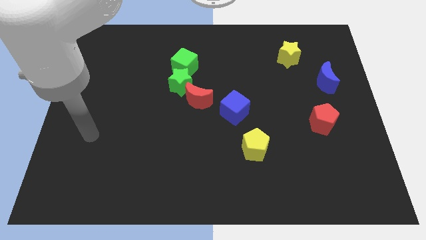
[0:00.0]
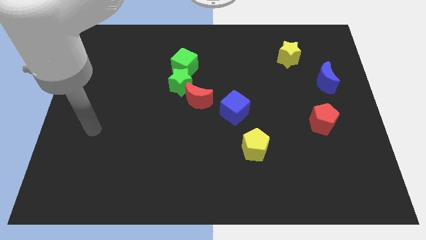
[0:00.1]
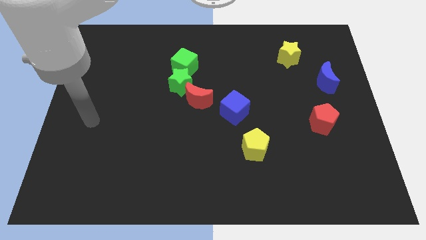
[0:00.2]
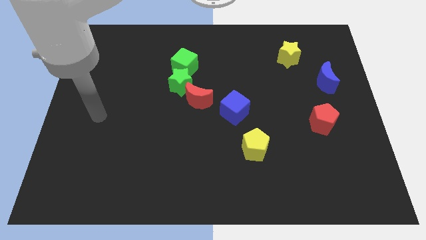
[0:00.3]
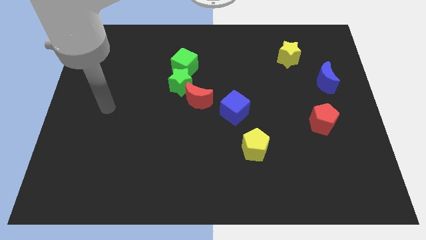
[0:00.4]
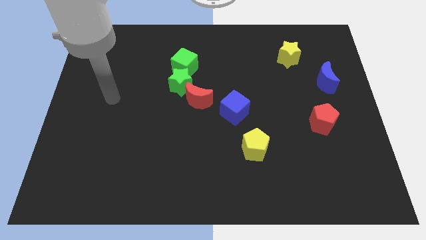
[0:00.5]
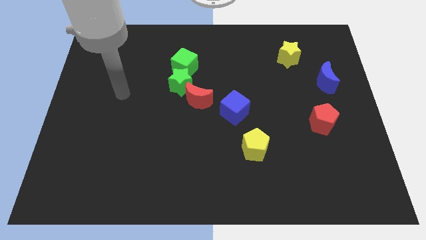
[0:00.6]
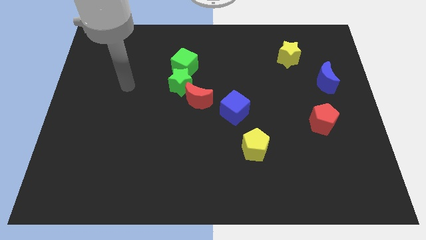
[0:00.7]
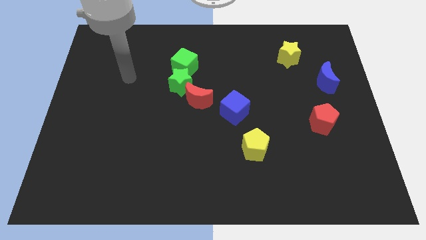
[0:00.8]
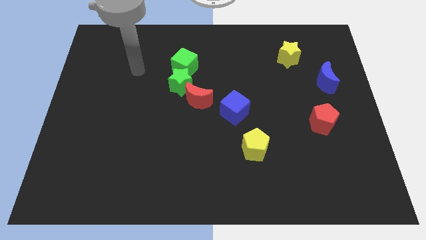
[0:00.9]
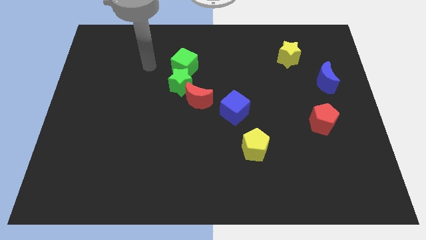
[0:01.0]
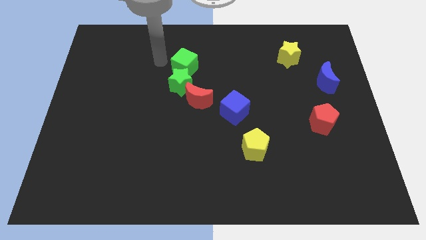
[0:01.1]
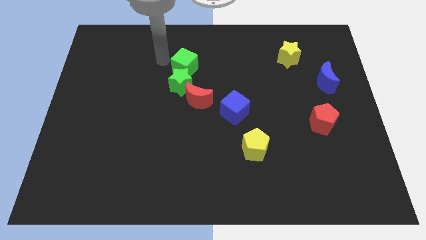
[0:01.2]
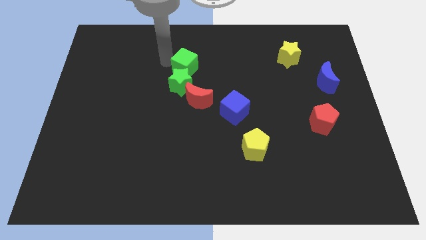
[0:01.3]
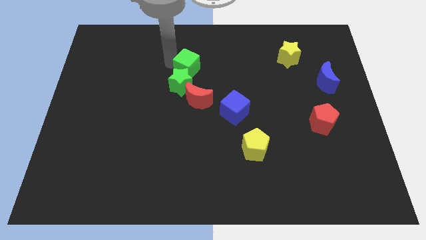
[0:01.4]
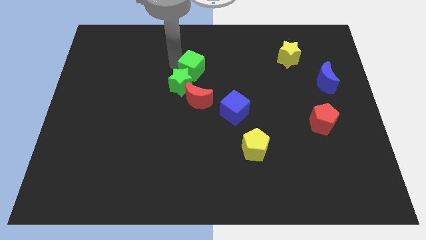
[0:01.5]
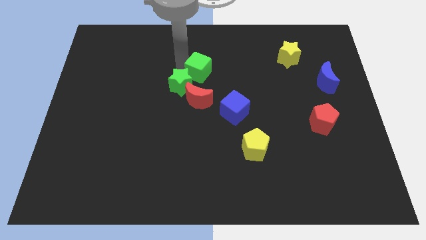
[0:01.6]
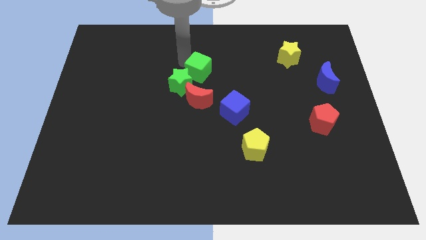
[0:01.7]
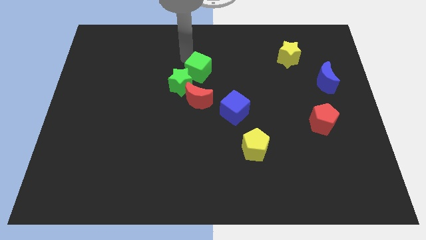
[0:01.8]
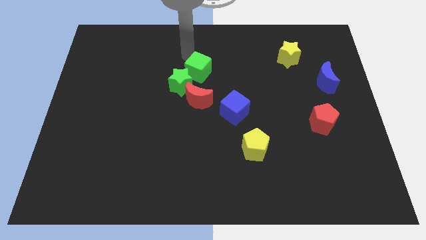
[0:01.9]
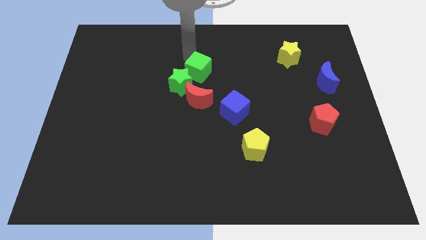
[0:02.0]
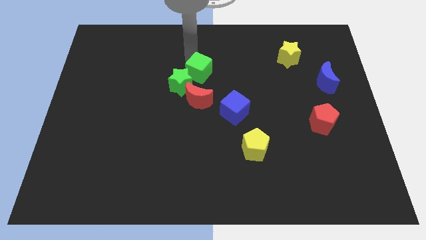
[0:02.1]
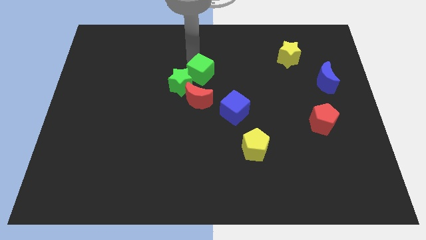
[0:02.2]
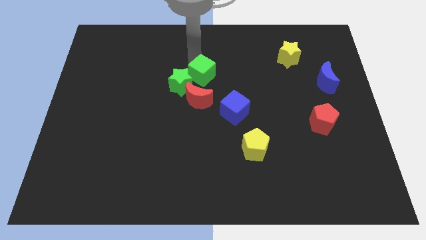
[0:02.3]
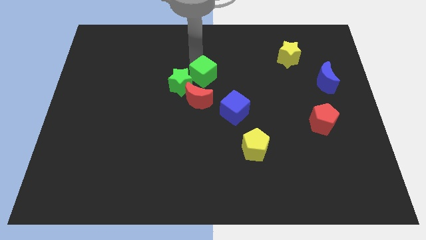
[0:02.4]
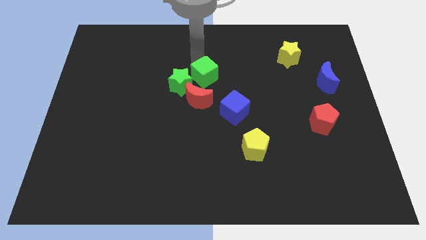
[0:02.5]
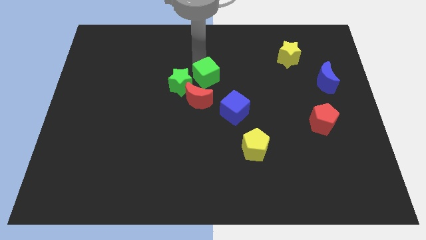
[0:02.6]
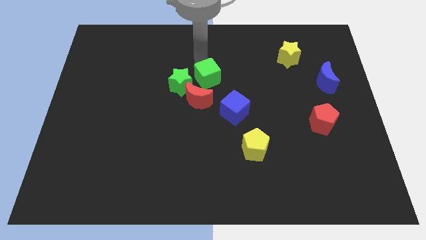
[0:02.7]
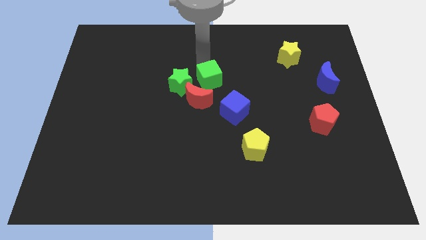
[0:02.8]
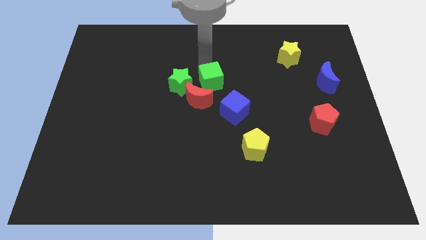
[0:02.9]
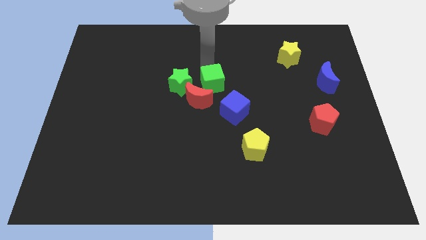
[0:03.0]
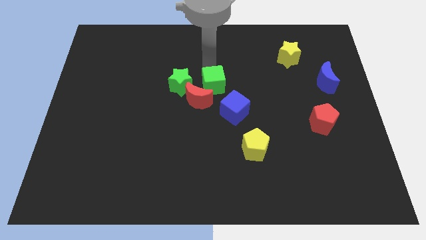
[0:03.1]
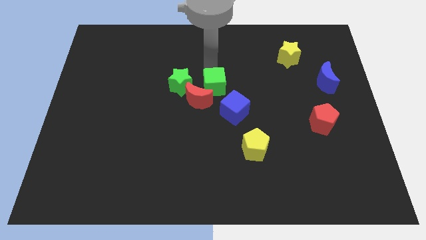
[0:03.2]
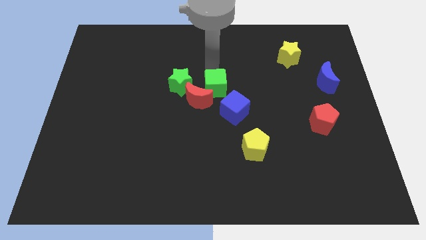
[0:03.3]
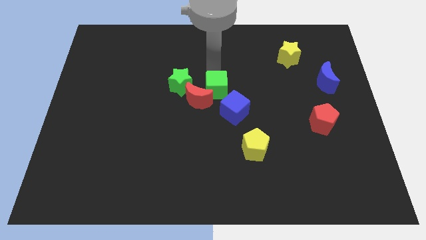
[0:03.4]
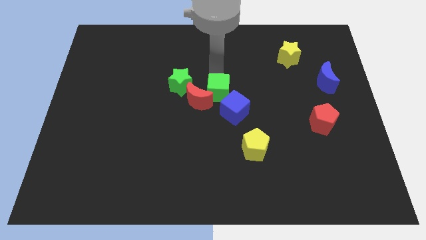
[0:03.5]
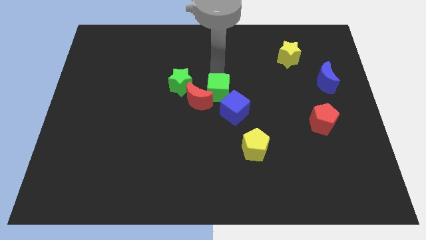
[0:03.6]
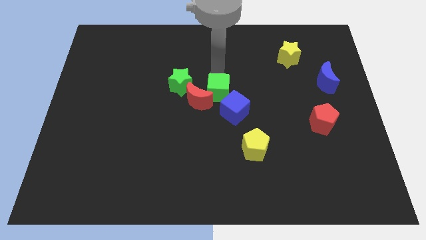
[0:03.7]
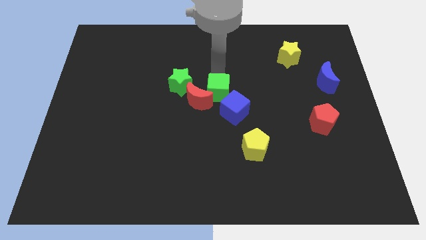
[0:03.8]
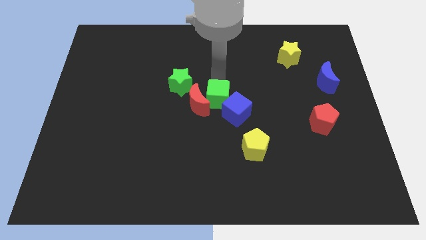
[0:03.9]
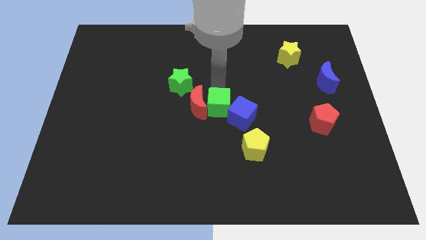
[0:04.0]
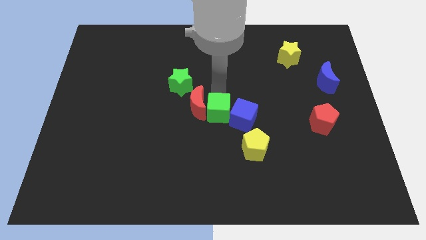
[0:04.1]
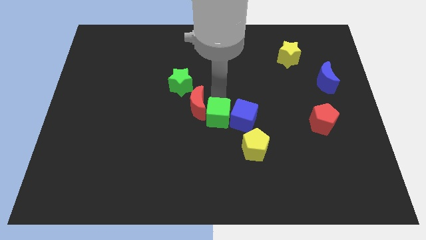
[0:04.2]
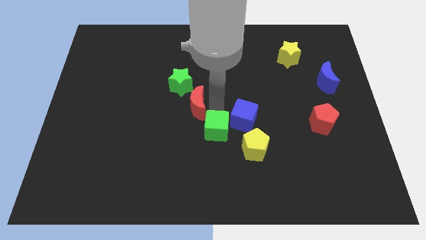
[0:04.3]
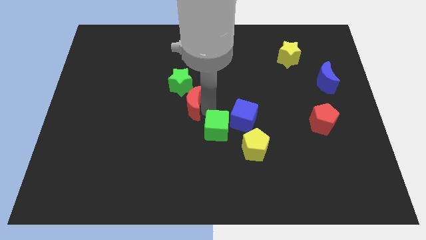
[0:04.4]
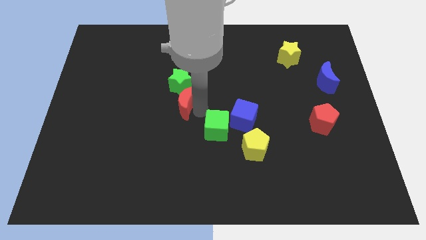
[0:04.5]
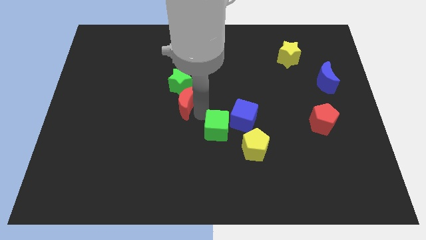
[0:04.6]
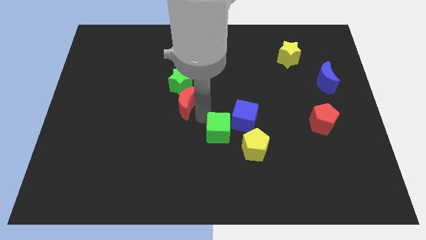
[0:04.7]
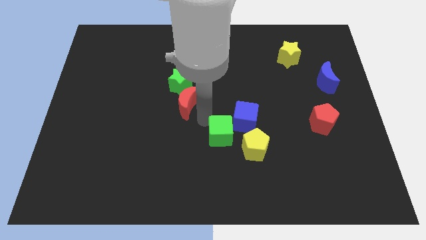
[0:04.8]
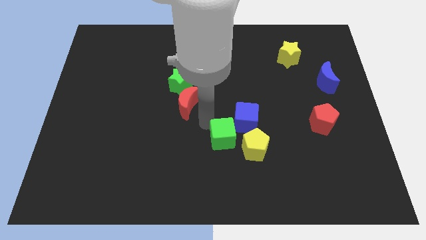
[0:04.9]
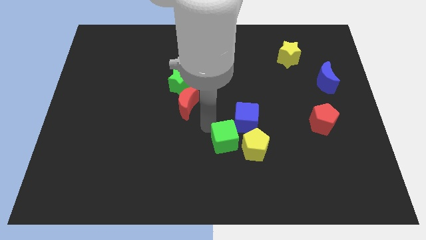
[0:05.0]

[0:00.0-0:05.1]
put the green cube to the bottom of the blue cube

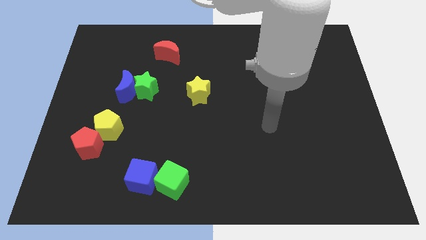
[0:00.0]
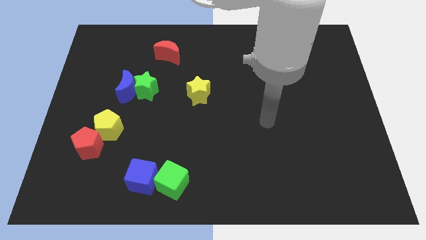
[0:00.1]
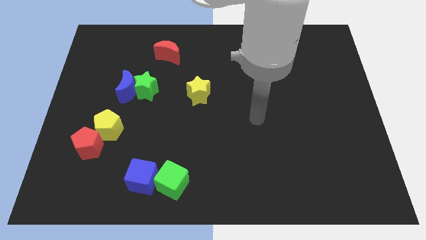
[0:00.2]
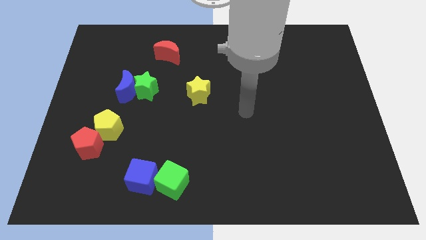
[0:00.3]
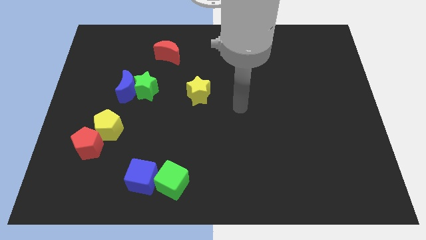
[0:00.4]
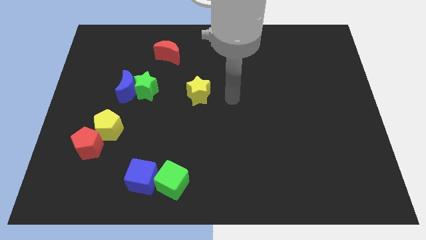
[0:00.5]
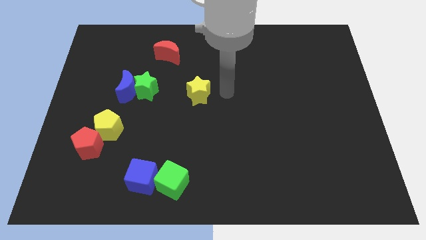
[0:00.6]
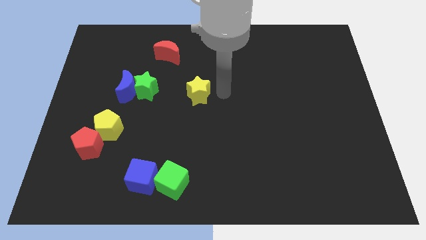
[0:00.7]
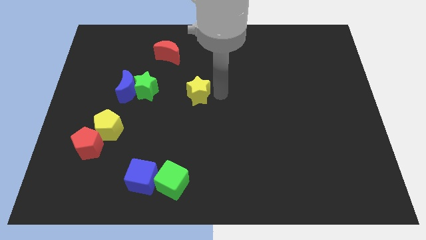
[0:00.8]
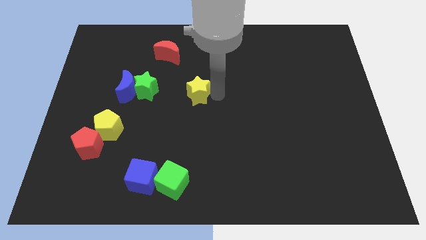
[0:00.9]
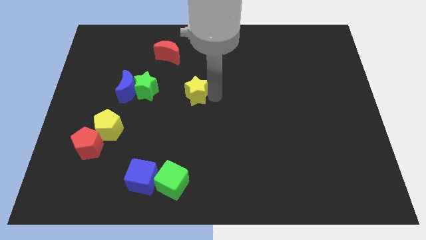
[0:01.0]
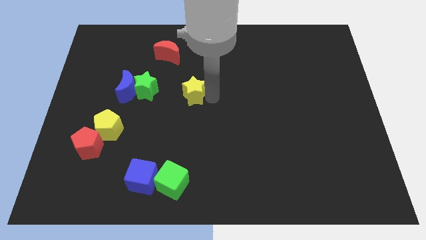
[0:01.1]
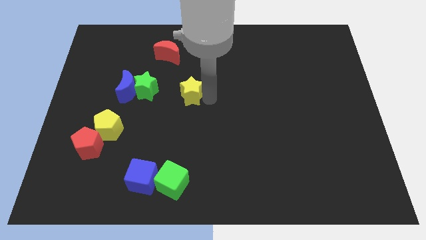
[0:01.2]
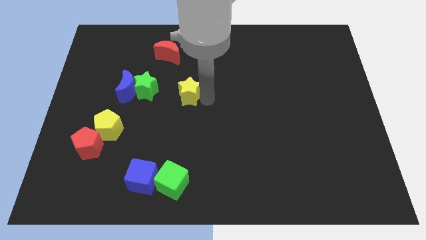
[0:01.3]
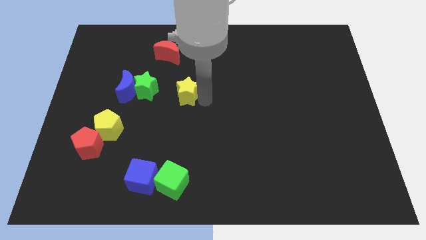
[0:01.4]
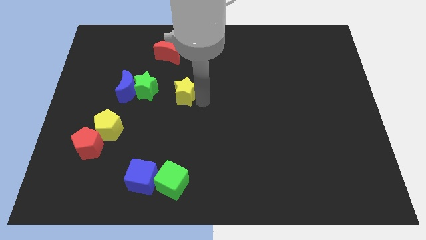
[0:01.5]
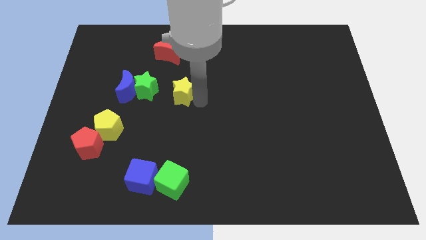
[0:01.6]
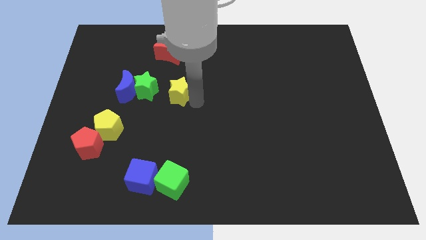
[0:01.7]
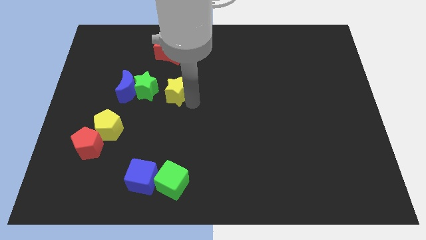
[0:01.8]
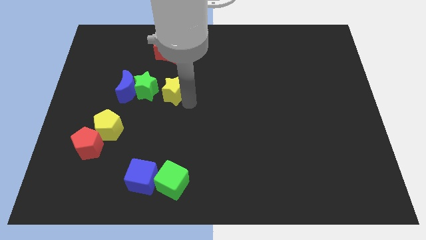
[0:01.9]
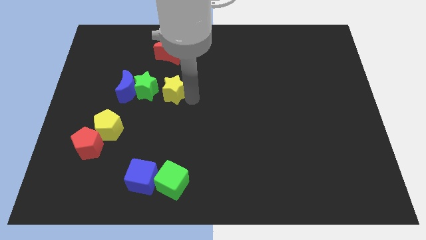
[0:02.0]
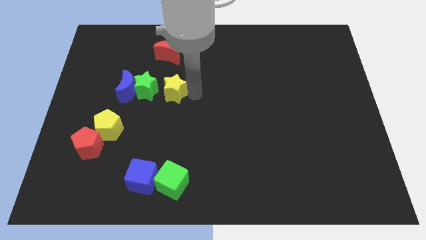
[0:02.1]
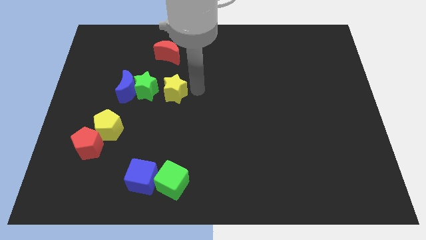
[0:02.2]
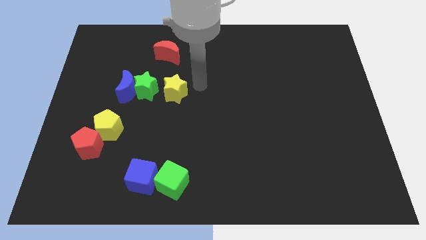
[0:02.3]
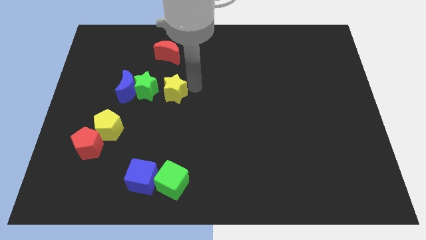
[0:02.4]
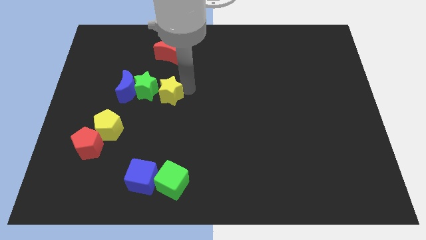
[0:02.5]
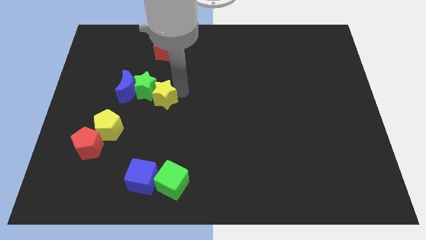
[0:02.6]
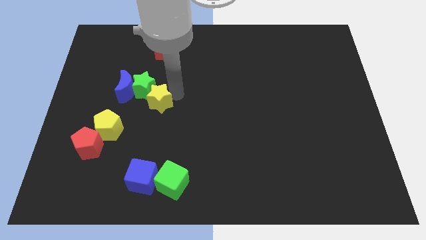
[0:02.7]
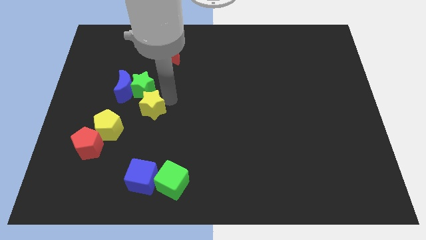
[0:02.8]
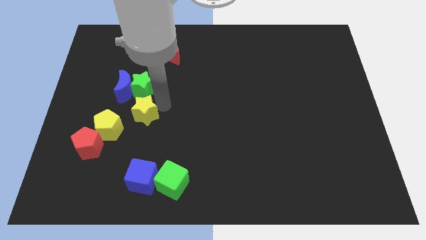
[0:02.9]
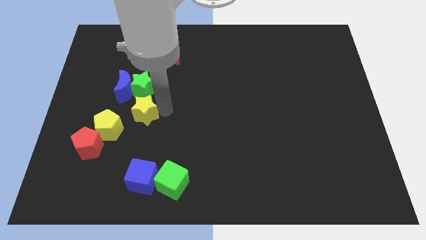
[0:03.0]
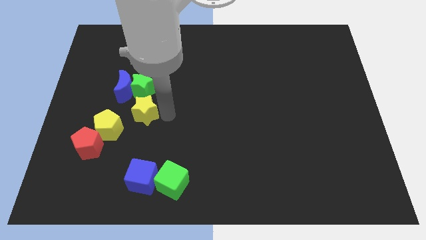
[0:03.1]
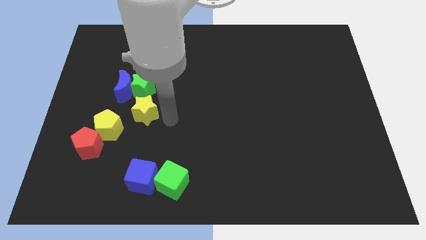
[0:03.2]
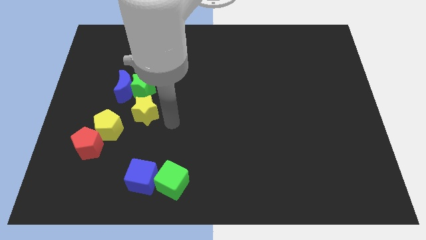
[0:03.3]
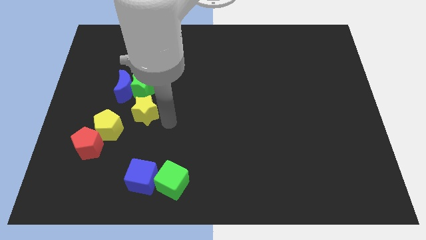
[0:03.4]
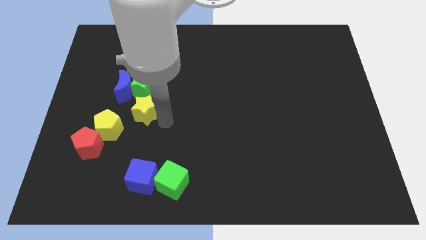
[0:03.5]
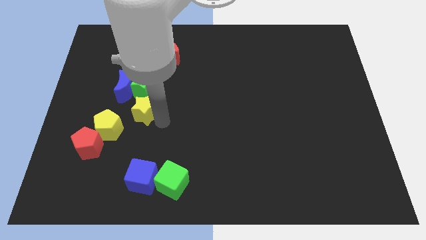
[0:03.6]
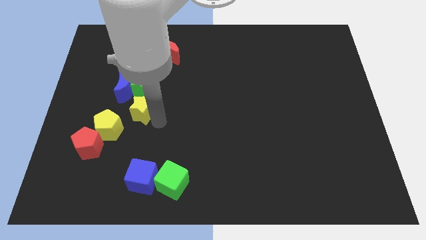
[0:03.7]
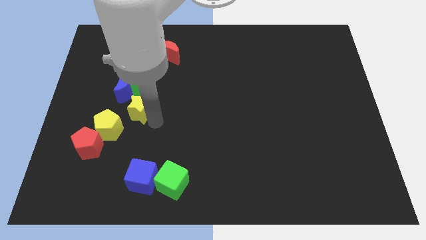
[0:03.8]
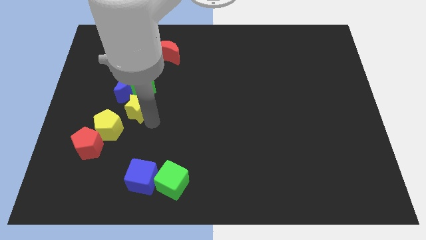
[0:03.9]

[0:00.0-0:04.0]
move the yellow star to the bottom left side of the green star
